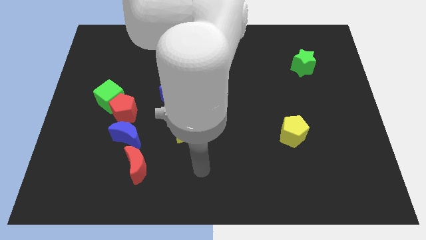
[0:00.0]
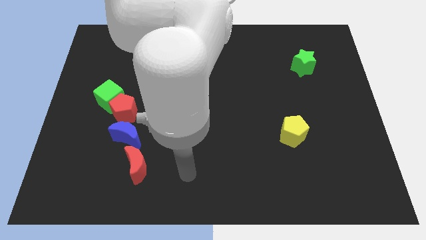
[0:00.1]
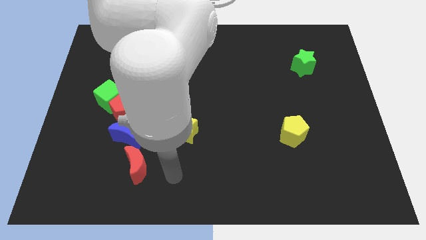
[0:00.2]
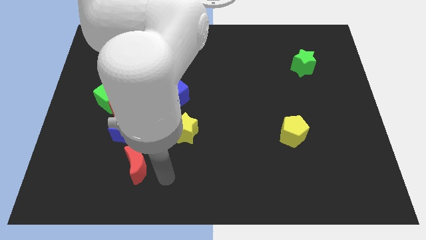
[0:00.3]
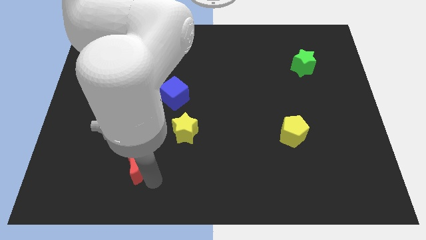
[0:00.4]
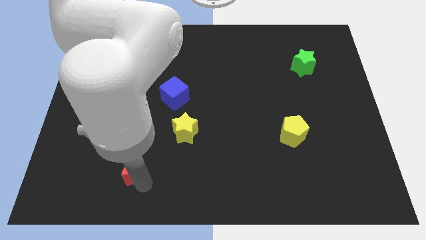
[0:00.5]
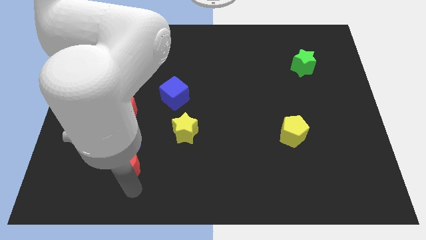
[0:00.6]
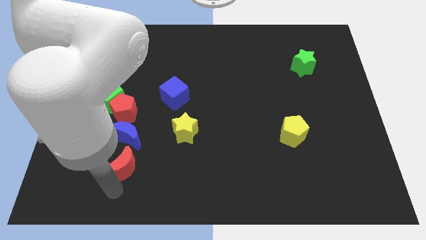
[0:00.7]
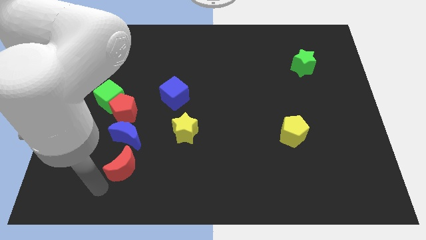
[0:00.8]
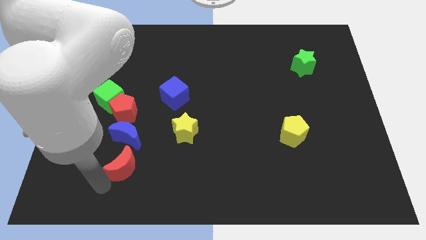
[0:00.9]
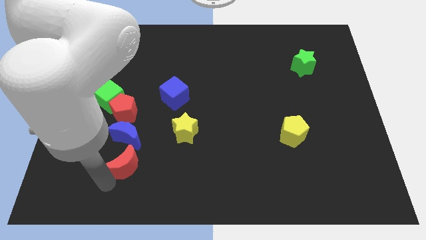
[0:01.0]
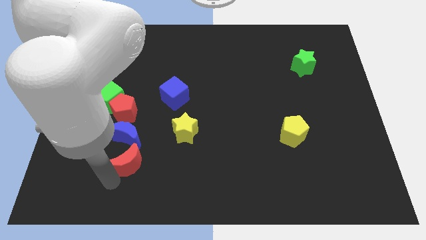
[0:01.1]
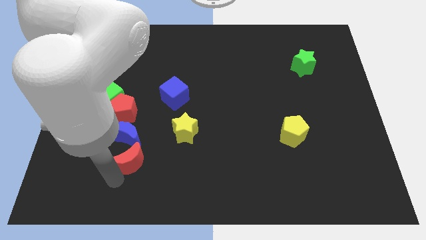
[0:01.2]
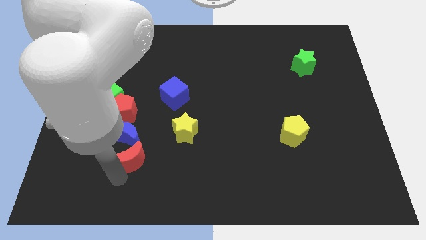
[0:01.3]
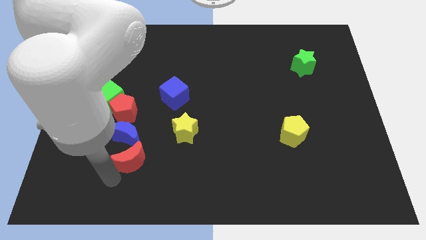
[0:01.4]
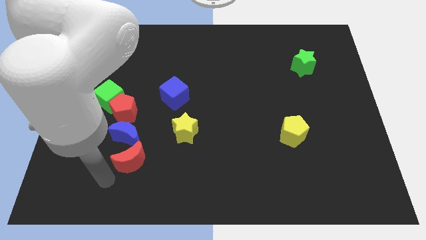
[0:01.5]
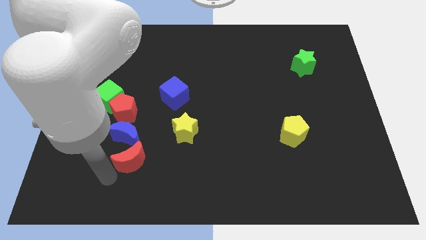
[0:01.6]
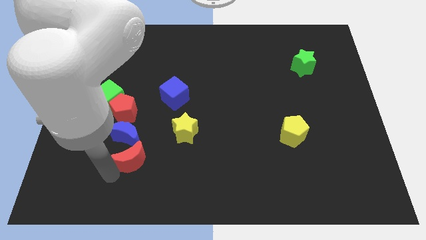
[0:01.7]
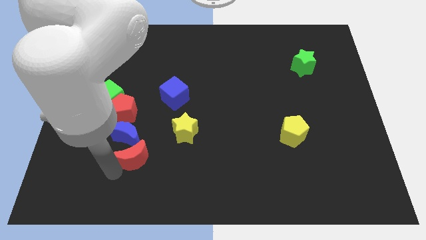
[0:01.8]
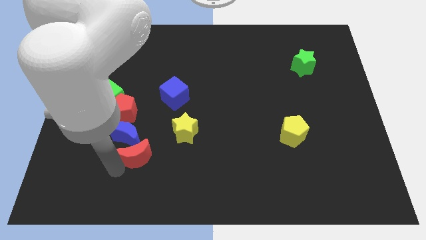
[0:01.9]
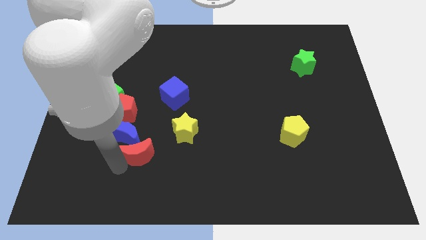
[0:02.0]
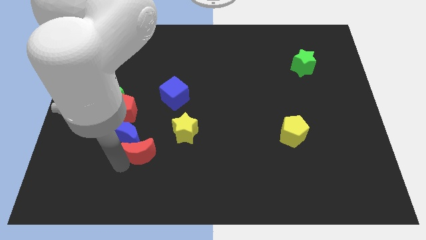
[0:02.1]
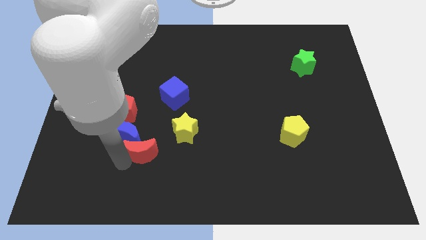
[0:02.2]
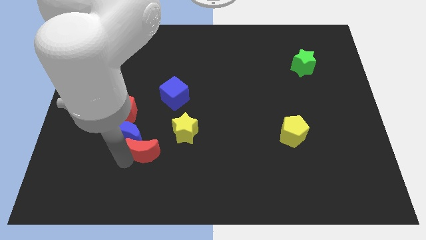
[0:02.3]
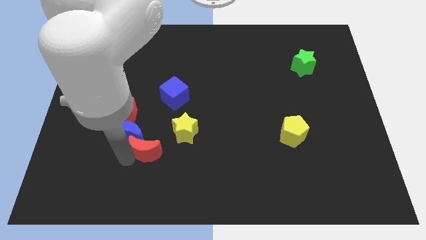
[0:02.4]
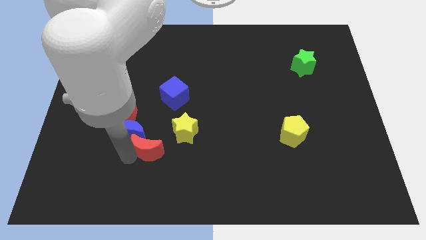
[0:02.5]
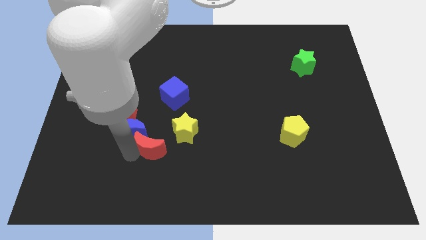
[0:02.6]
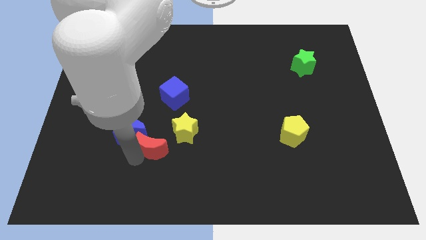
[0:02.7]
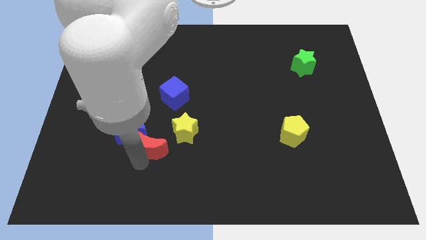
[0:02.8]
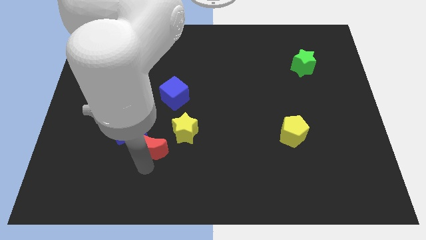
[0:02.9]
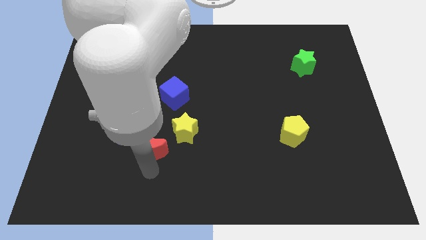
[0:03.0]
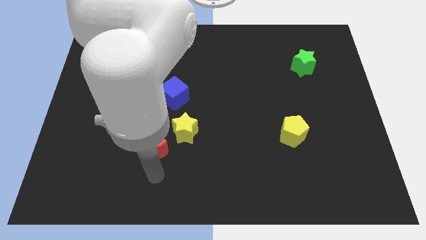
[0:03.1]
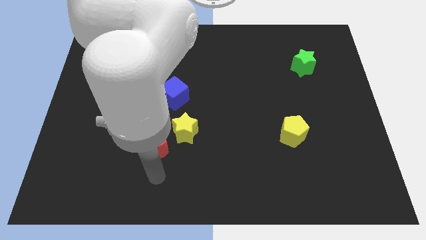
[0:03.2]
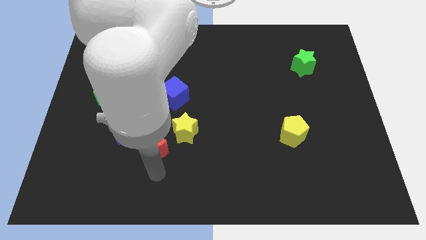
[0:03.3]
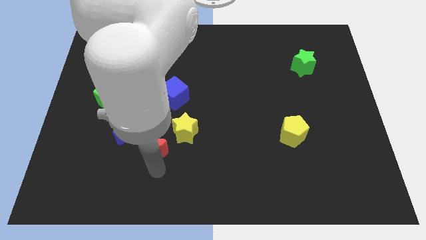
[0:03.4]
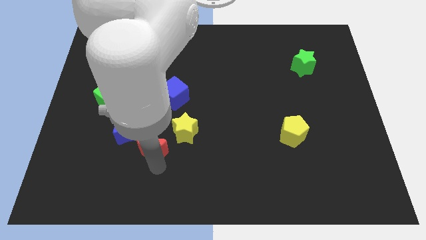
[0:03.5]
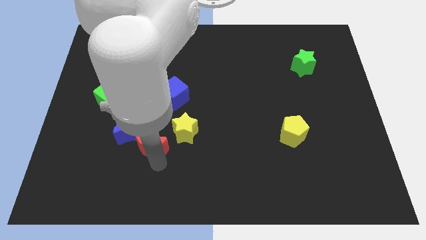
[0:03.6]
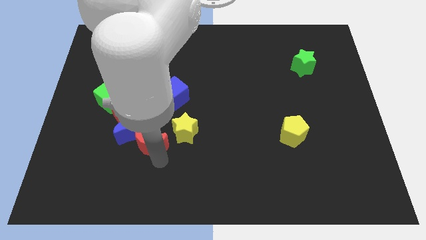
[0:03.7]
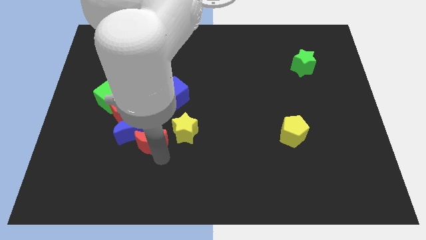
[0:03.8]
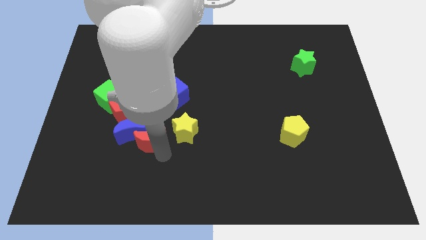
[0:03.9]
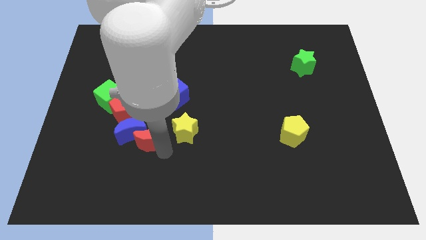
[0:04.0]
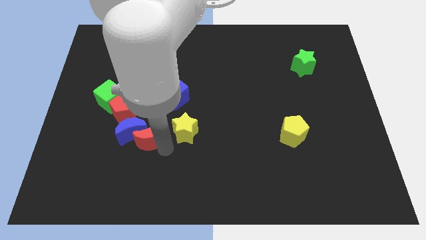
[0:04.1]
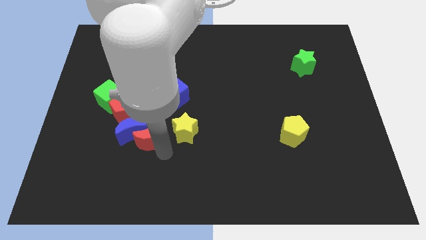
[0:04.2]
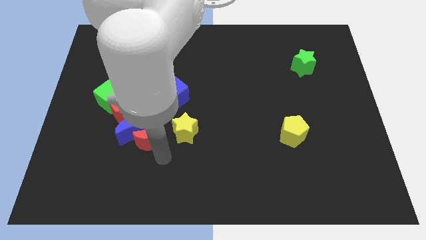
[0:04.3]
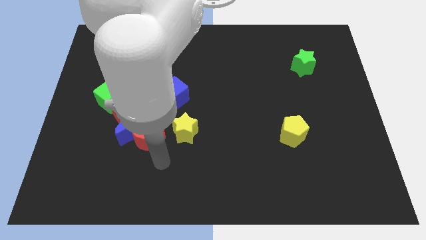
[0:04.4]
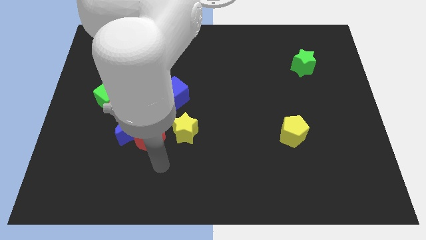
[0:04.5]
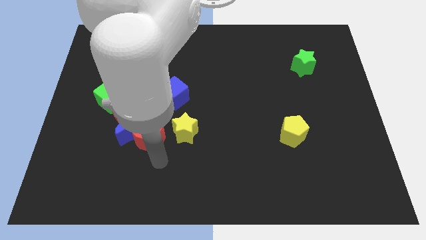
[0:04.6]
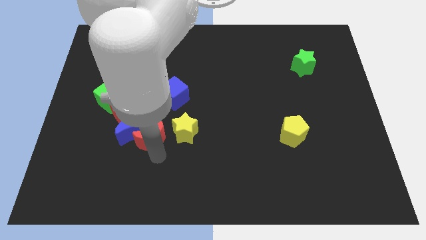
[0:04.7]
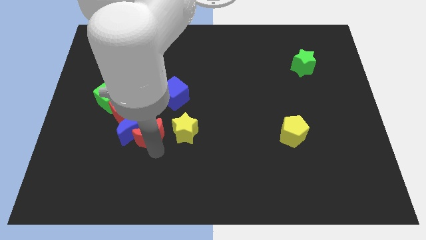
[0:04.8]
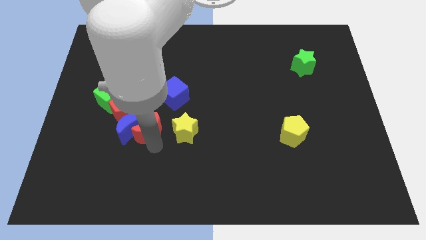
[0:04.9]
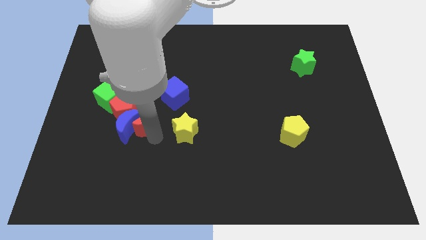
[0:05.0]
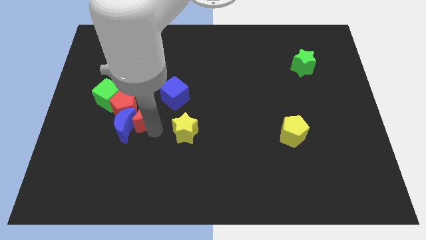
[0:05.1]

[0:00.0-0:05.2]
put the red moon towards the red pentagon

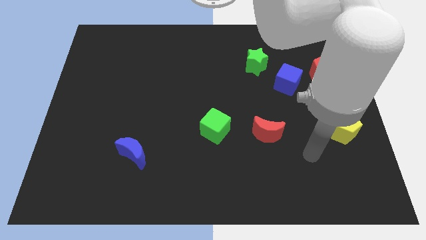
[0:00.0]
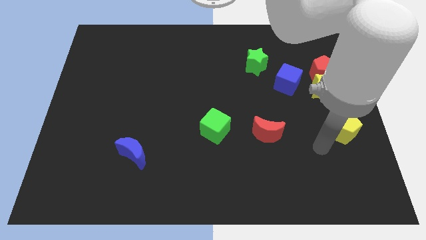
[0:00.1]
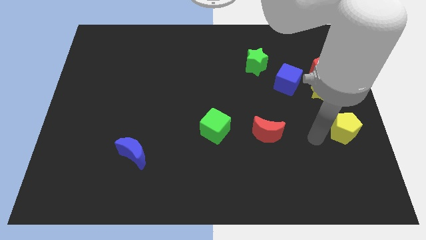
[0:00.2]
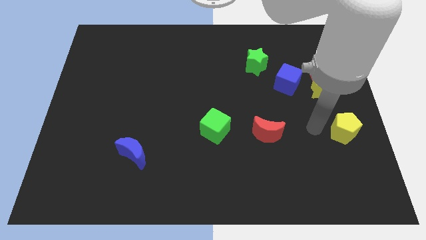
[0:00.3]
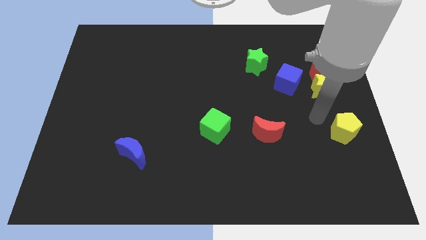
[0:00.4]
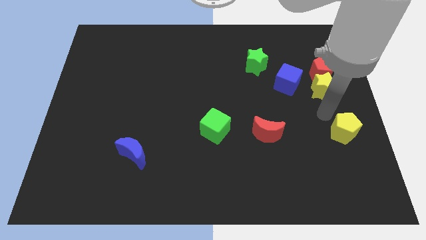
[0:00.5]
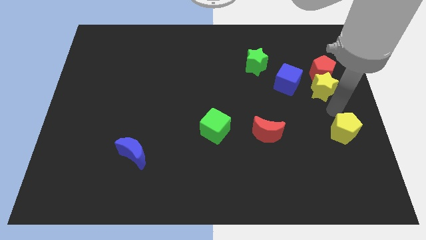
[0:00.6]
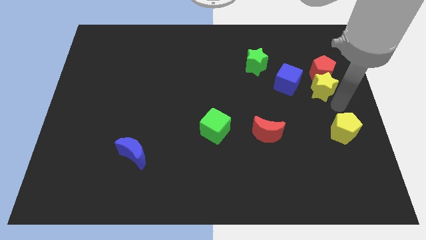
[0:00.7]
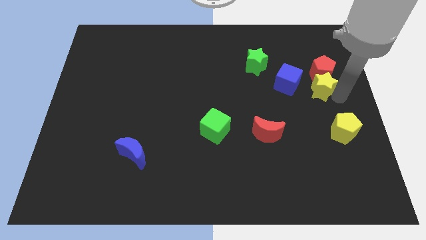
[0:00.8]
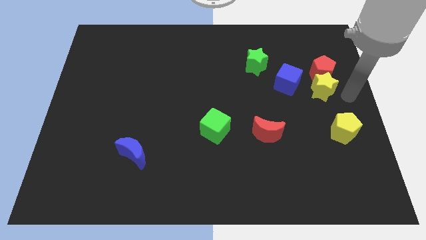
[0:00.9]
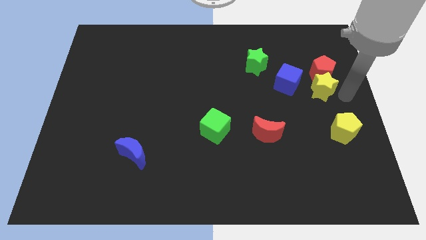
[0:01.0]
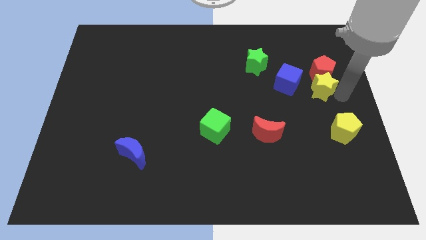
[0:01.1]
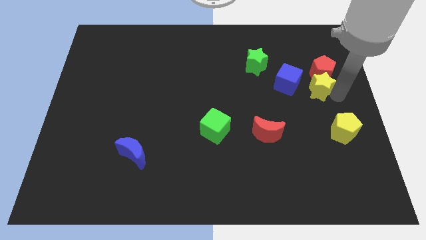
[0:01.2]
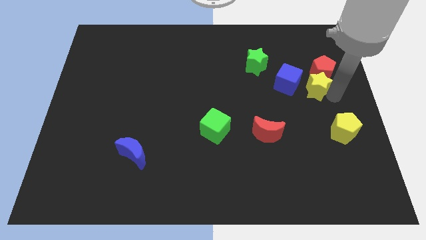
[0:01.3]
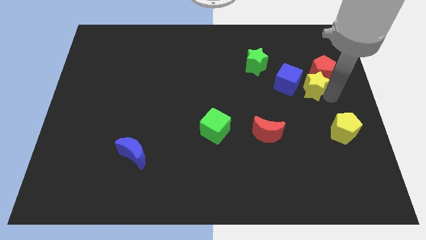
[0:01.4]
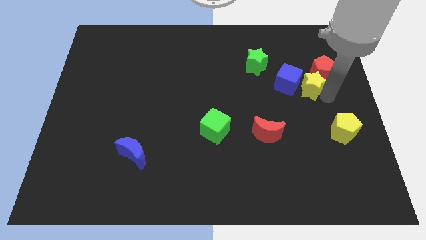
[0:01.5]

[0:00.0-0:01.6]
move the yellow star close to the blue cube
